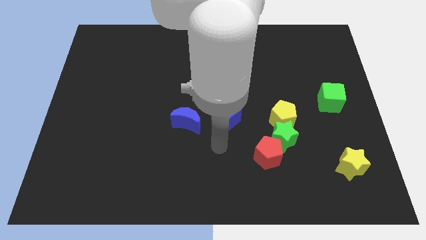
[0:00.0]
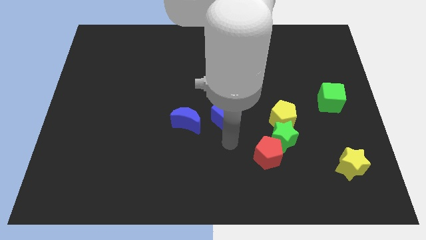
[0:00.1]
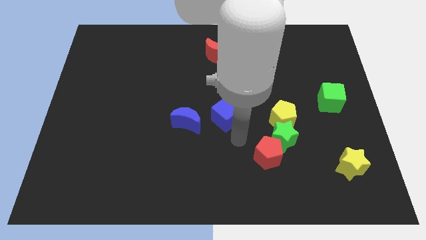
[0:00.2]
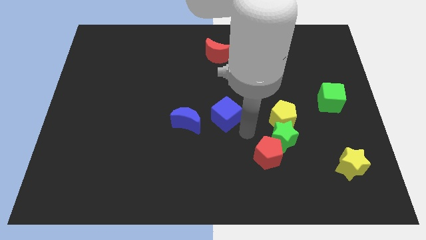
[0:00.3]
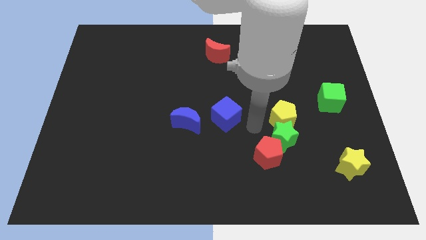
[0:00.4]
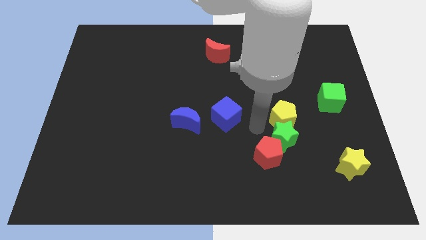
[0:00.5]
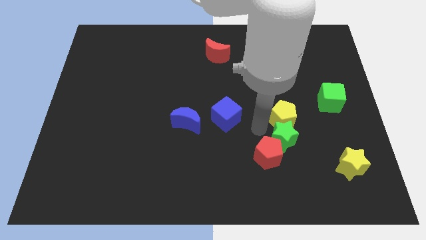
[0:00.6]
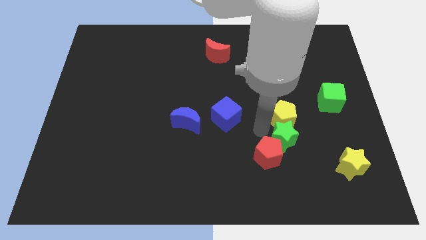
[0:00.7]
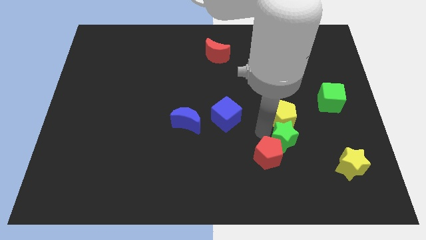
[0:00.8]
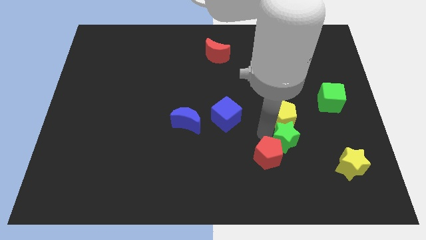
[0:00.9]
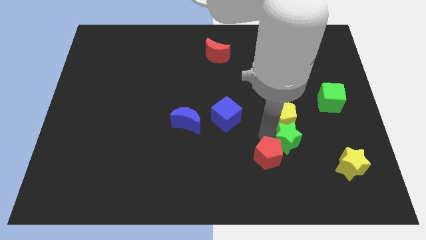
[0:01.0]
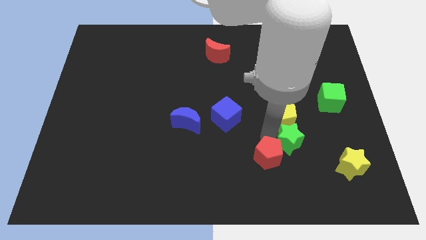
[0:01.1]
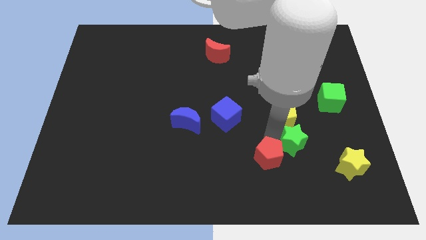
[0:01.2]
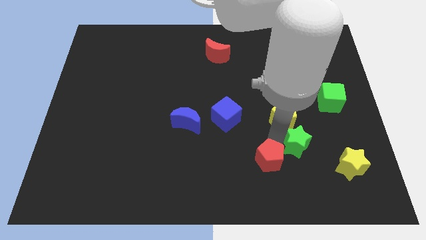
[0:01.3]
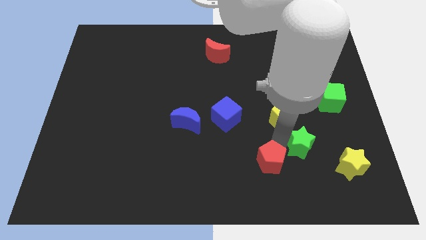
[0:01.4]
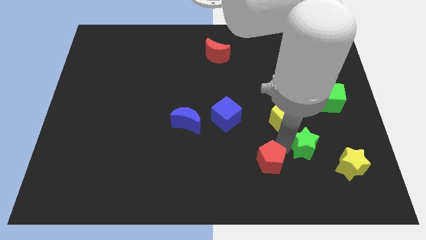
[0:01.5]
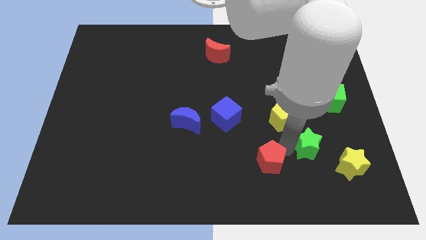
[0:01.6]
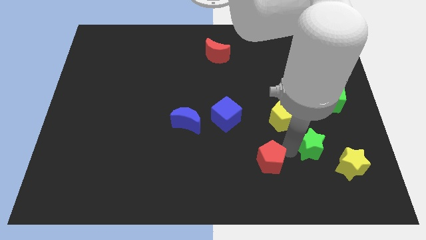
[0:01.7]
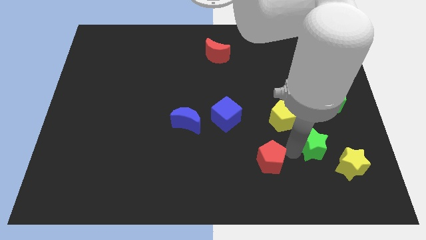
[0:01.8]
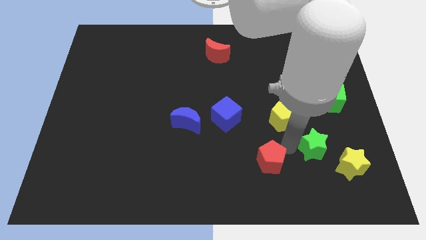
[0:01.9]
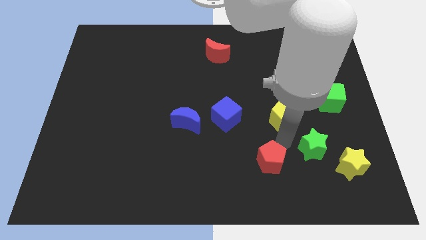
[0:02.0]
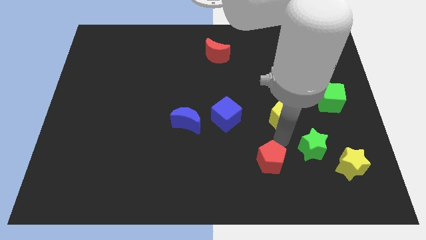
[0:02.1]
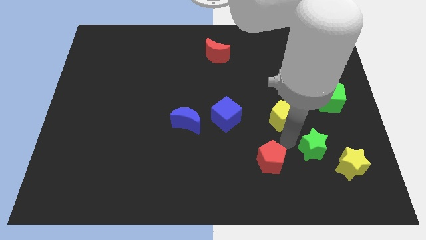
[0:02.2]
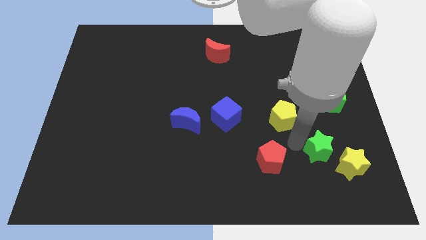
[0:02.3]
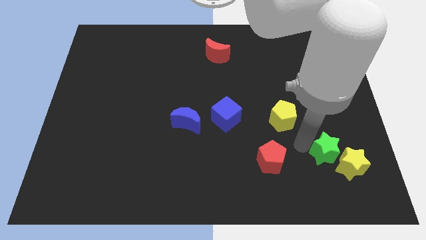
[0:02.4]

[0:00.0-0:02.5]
separate the green star from the yellow pentagon and red pentagon

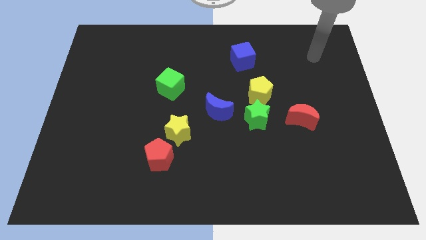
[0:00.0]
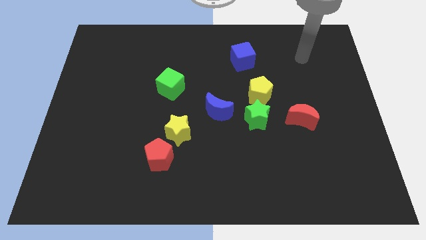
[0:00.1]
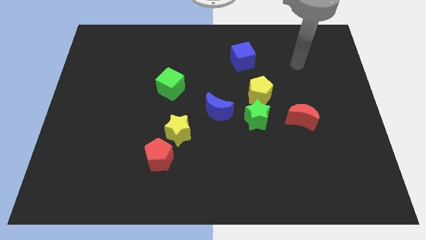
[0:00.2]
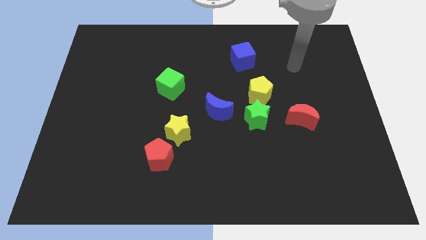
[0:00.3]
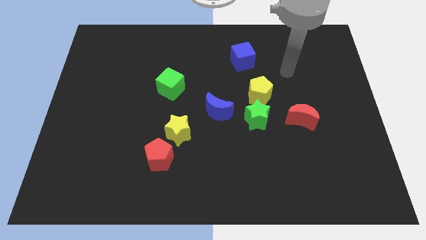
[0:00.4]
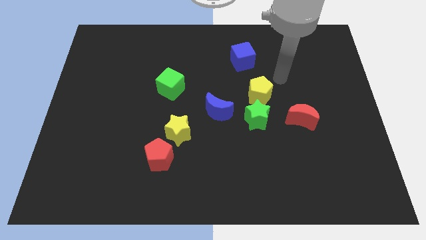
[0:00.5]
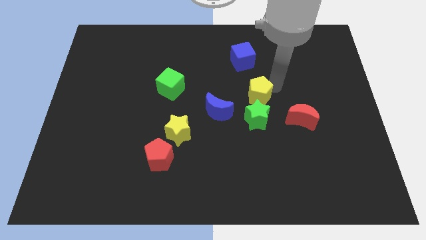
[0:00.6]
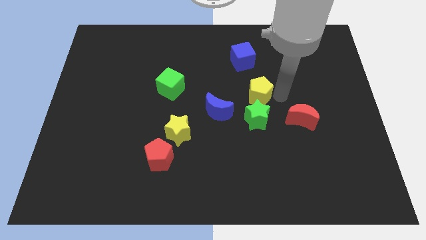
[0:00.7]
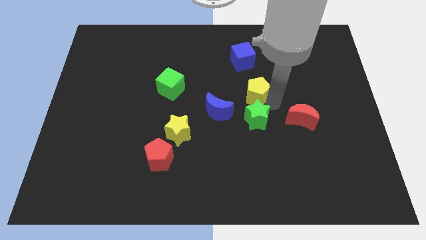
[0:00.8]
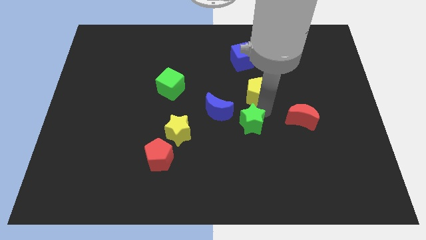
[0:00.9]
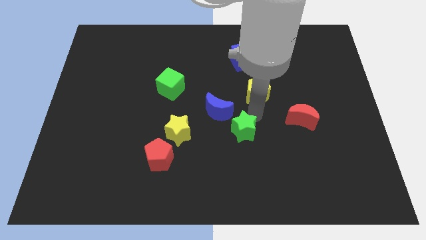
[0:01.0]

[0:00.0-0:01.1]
move the yellow pentagon away from the green star

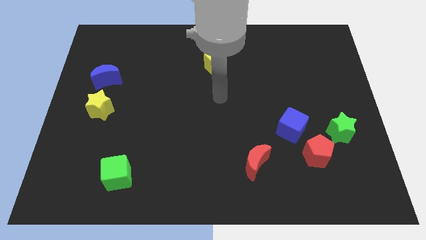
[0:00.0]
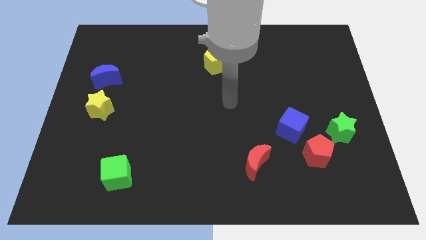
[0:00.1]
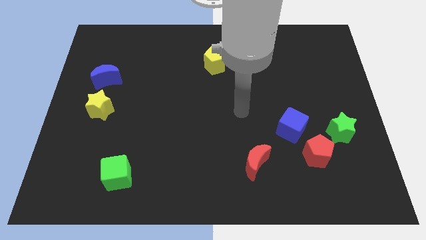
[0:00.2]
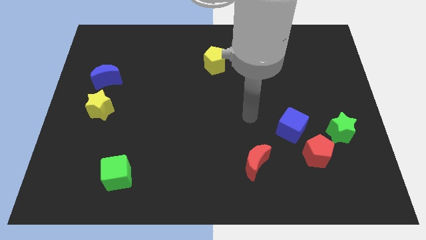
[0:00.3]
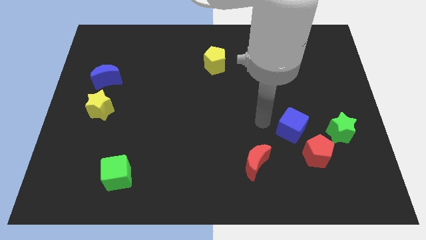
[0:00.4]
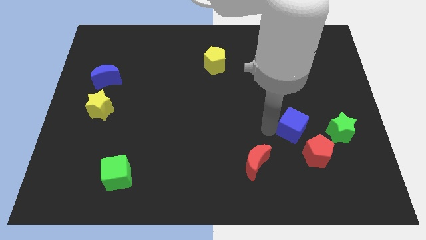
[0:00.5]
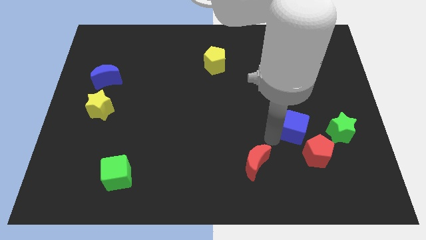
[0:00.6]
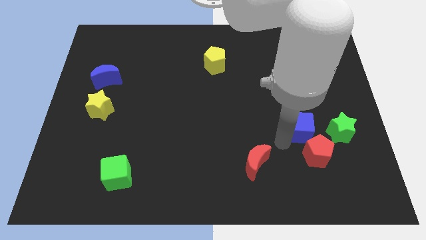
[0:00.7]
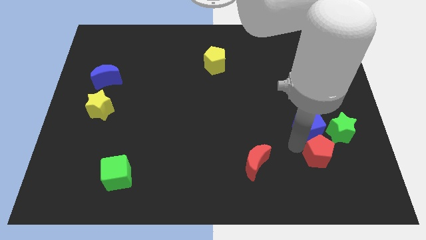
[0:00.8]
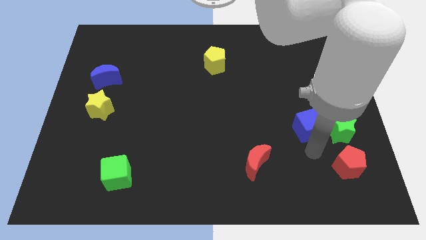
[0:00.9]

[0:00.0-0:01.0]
separate the blue cube from the red pentagon

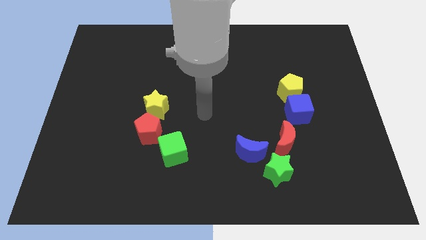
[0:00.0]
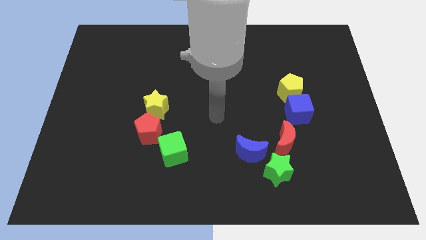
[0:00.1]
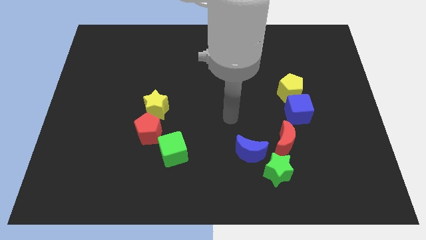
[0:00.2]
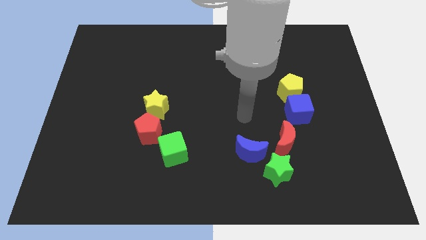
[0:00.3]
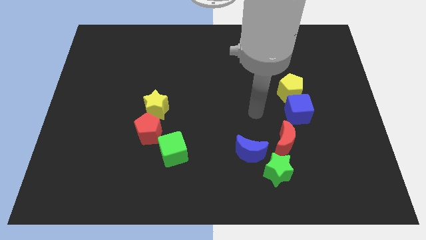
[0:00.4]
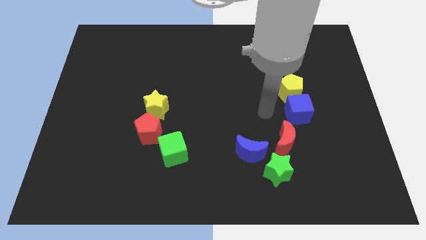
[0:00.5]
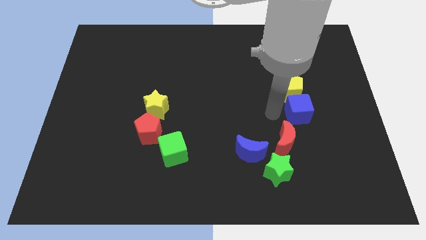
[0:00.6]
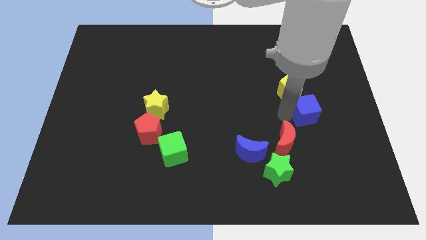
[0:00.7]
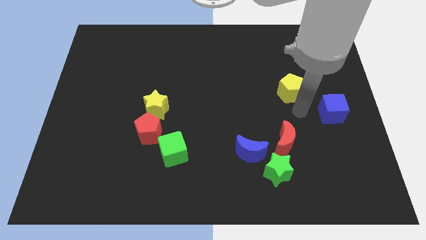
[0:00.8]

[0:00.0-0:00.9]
separate the yellow pentagon from the blue cube

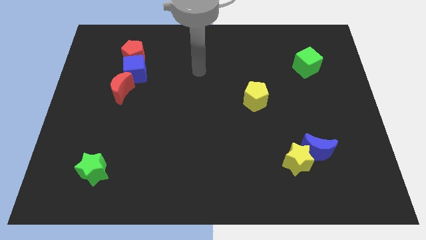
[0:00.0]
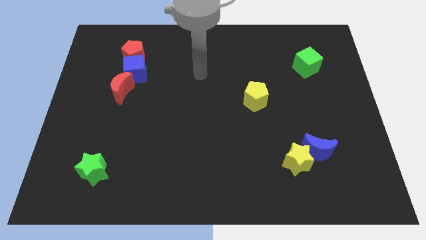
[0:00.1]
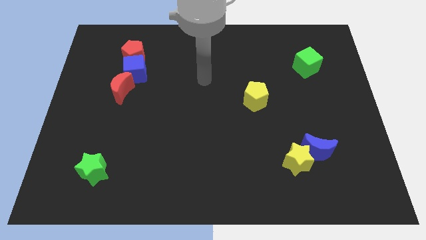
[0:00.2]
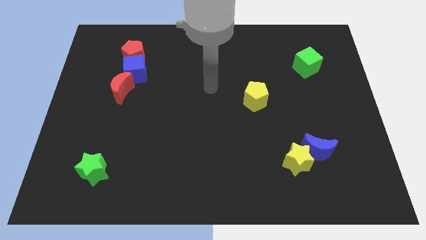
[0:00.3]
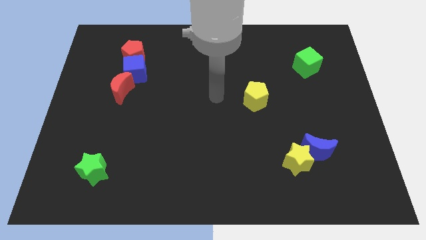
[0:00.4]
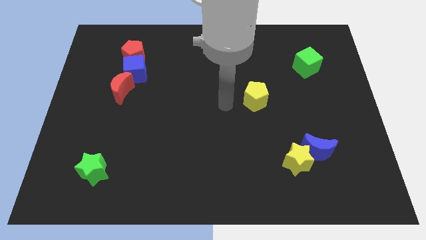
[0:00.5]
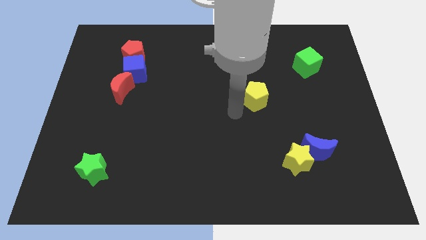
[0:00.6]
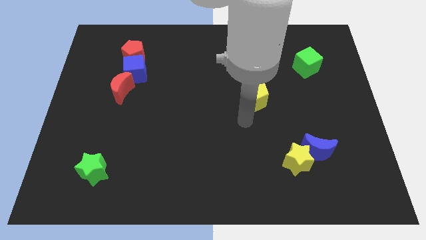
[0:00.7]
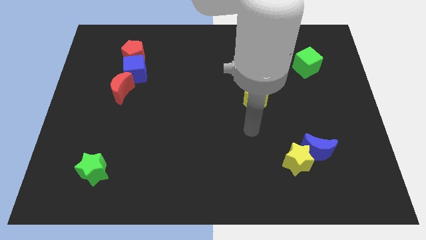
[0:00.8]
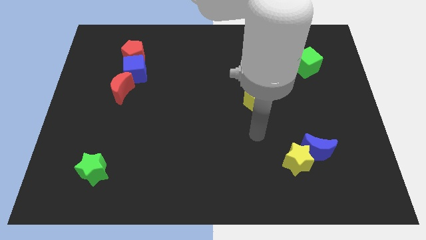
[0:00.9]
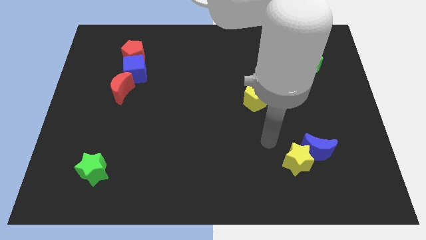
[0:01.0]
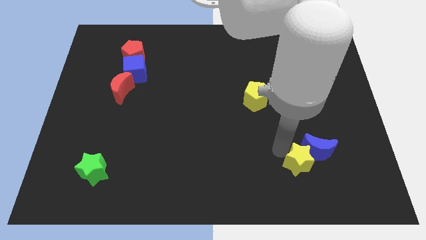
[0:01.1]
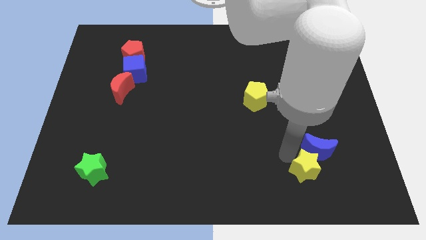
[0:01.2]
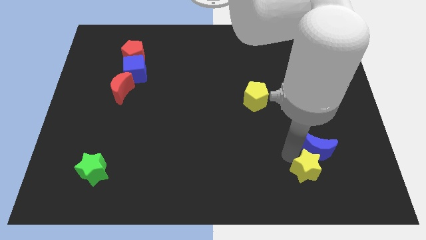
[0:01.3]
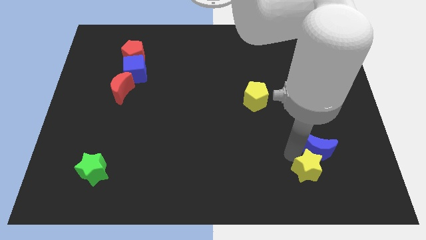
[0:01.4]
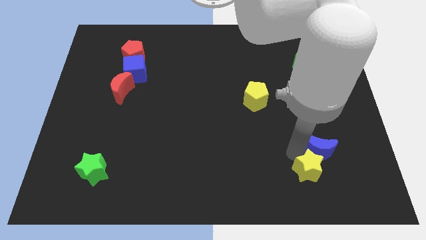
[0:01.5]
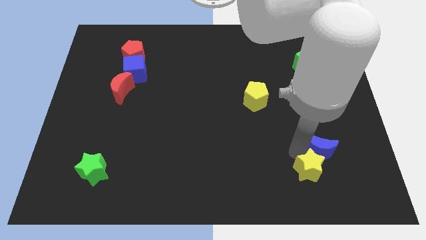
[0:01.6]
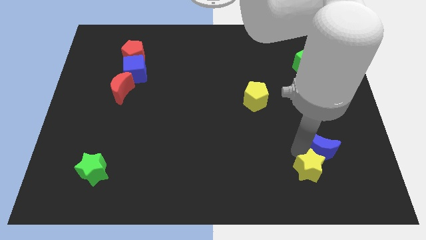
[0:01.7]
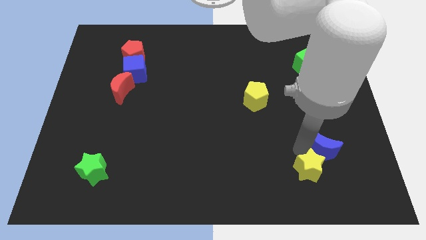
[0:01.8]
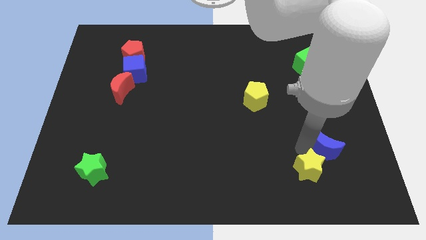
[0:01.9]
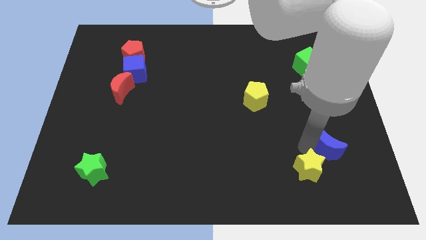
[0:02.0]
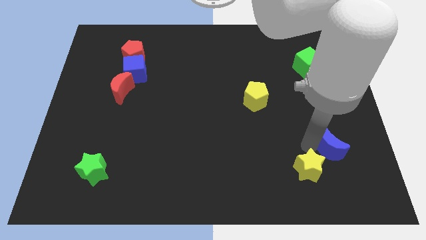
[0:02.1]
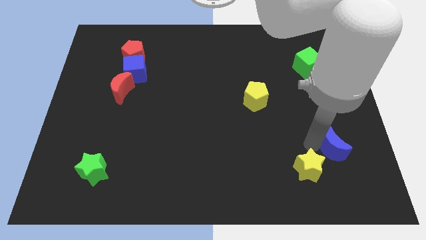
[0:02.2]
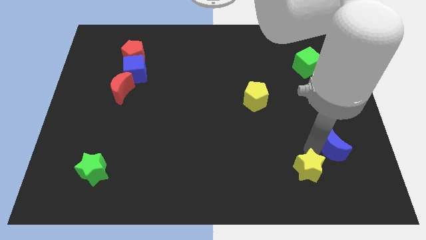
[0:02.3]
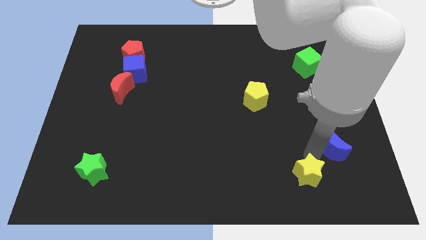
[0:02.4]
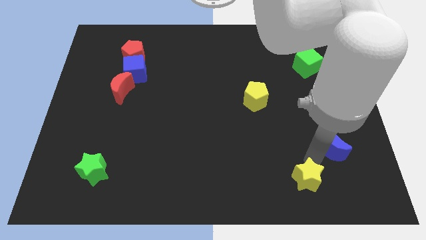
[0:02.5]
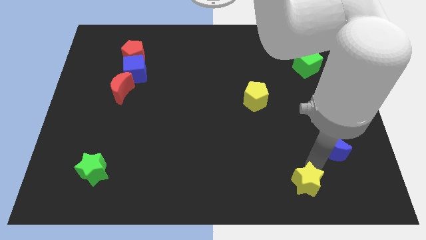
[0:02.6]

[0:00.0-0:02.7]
separate the blue moon from the yellow star

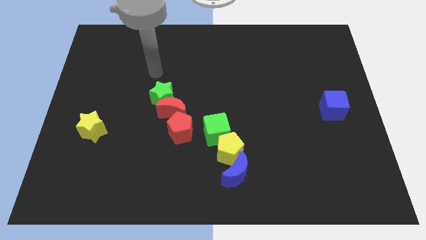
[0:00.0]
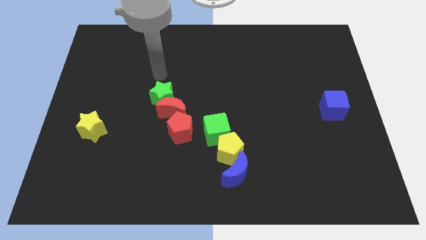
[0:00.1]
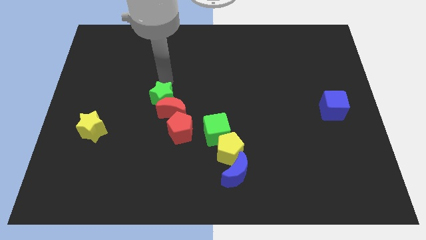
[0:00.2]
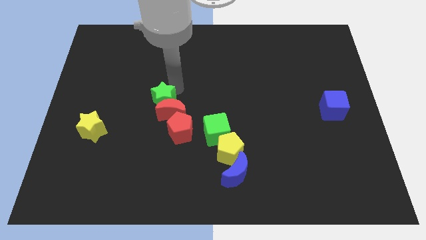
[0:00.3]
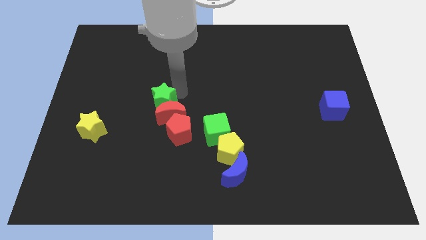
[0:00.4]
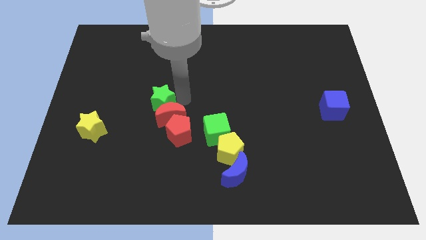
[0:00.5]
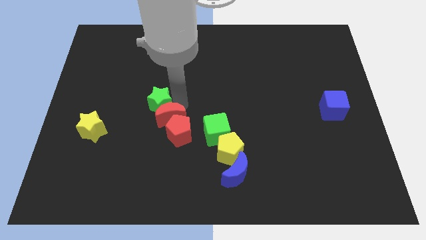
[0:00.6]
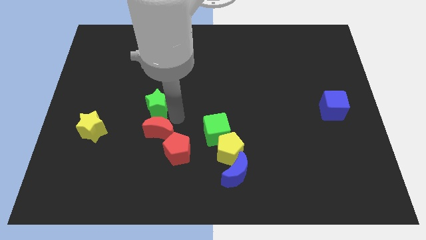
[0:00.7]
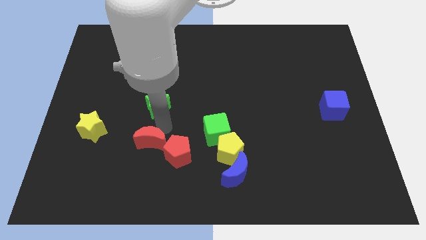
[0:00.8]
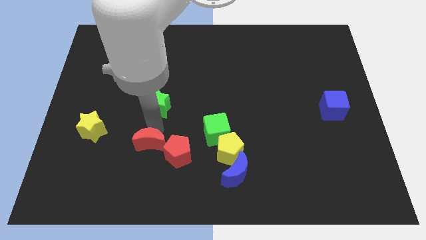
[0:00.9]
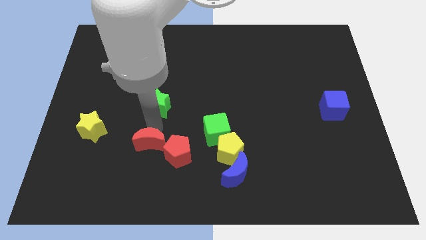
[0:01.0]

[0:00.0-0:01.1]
pull the green star apart from the red moon
